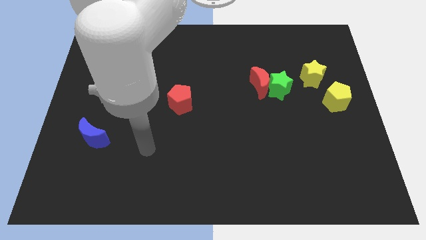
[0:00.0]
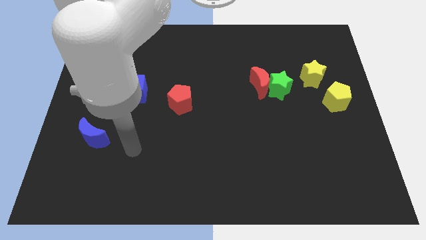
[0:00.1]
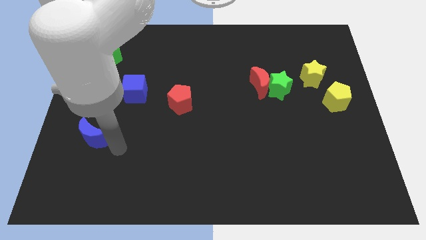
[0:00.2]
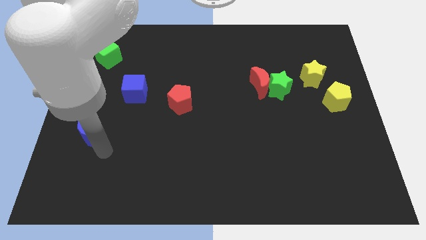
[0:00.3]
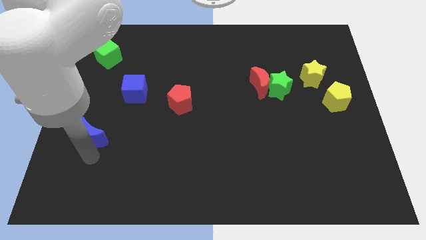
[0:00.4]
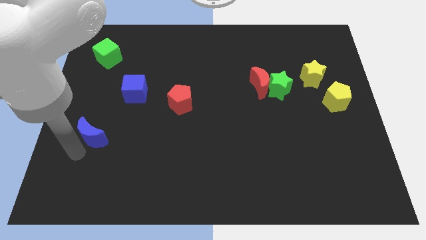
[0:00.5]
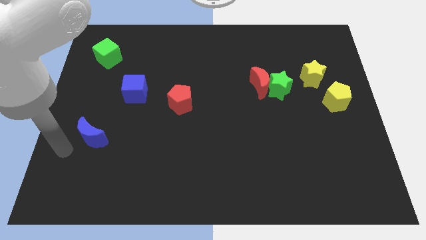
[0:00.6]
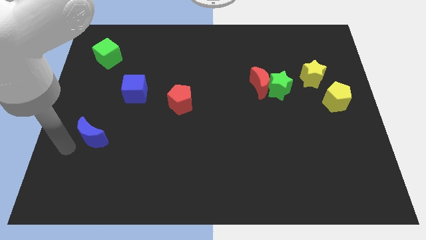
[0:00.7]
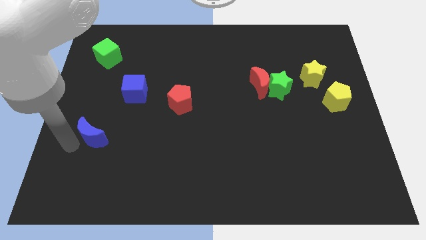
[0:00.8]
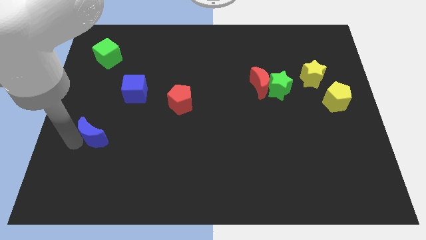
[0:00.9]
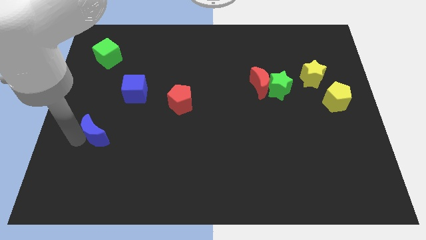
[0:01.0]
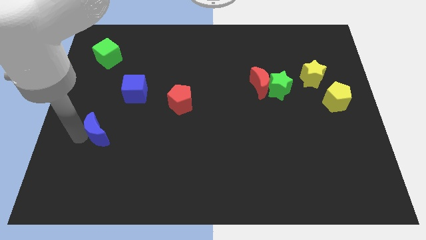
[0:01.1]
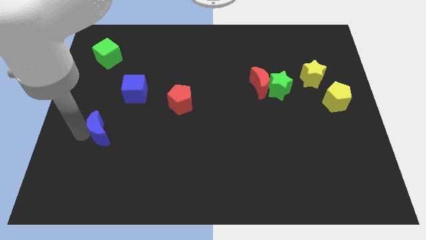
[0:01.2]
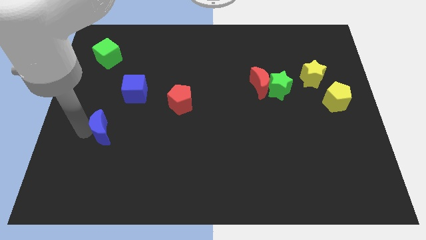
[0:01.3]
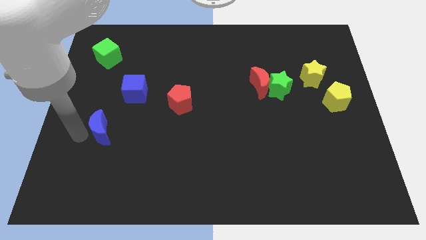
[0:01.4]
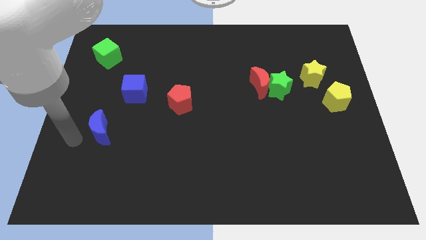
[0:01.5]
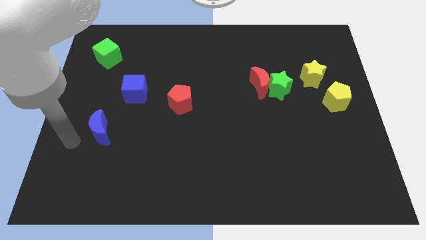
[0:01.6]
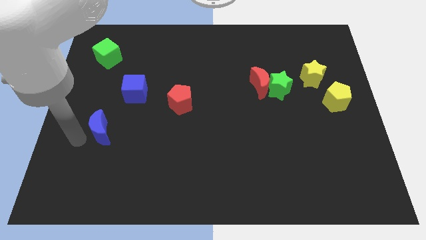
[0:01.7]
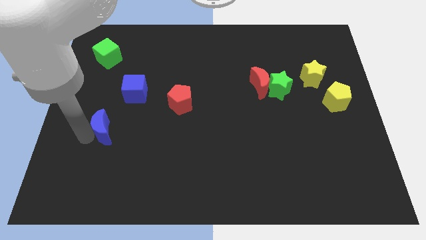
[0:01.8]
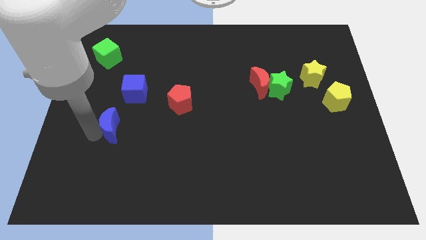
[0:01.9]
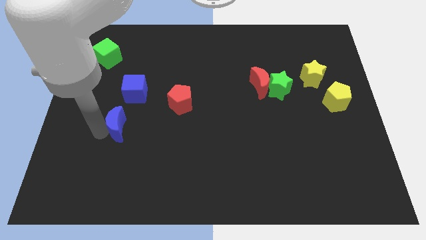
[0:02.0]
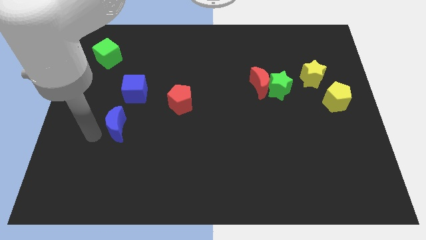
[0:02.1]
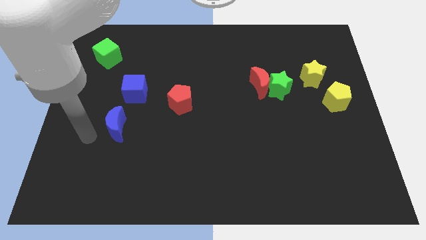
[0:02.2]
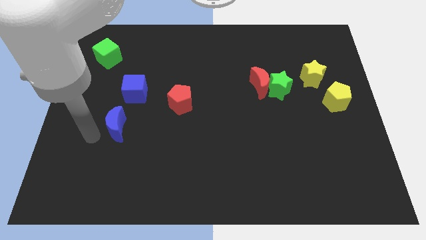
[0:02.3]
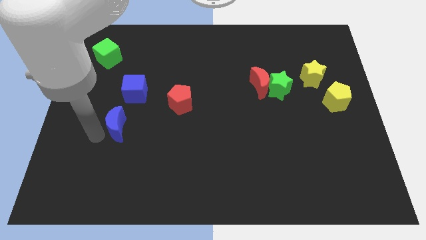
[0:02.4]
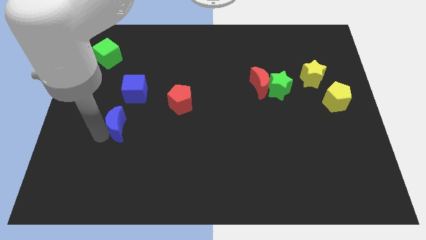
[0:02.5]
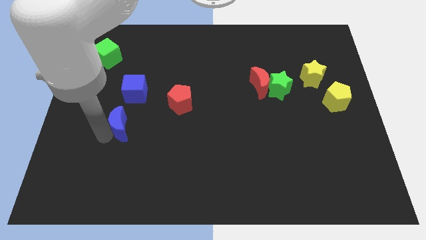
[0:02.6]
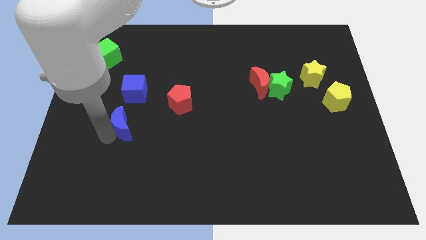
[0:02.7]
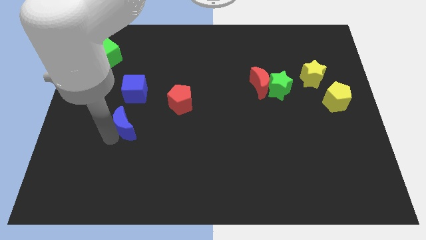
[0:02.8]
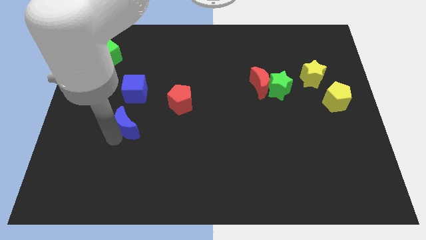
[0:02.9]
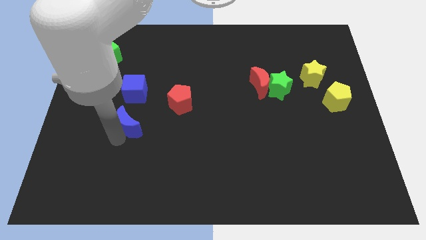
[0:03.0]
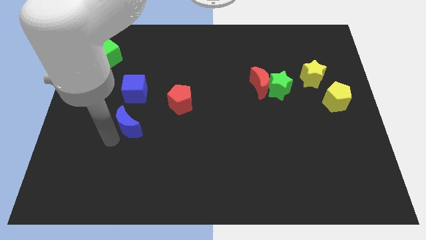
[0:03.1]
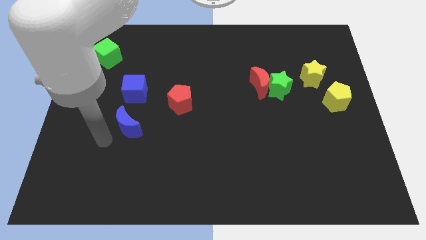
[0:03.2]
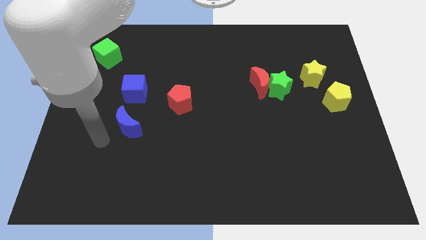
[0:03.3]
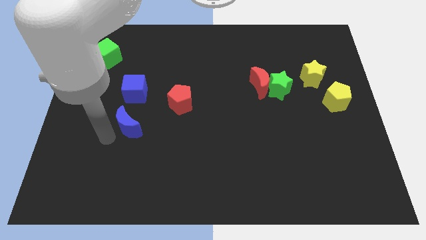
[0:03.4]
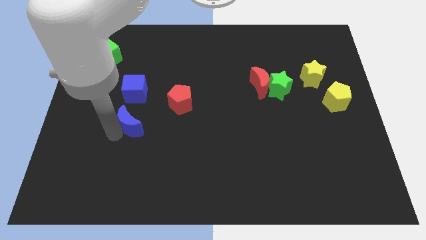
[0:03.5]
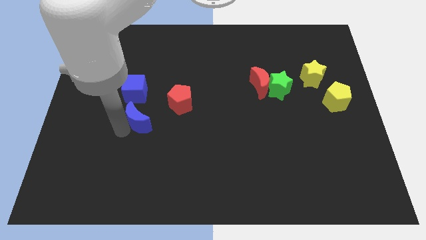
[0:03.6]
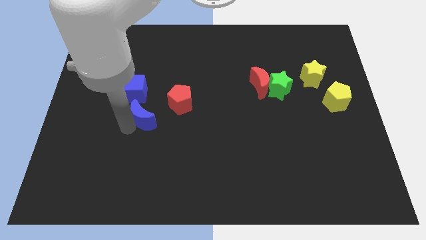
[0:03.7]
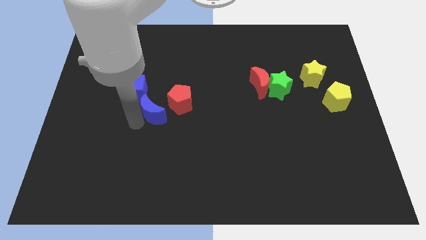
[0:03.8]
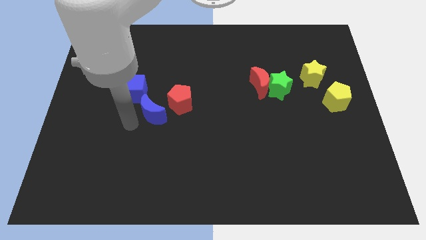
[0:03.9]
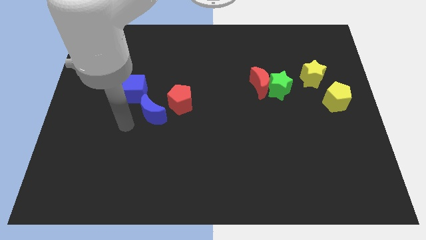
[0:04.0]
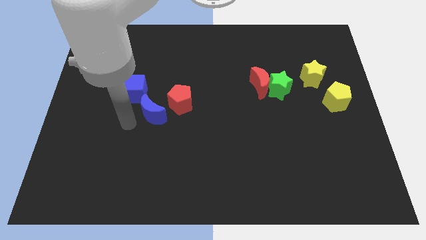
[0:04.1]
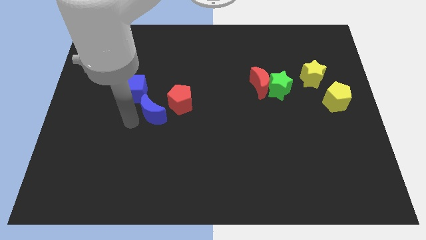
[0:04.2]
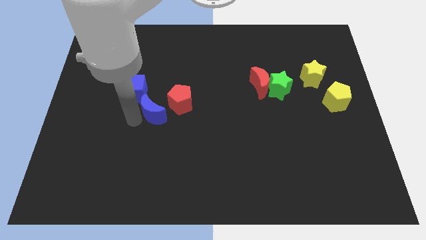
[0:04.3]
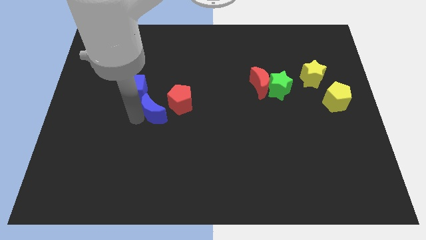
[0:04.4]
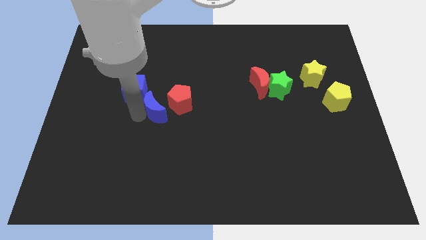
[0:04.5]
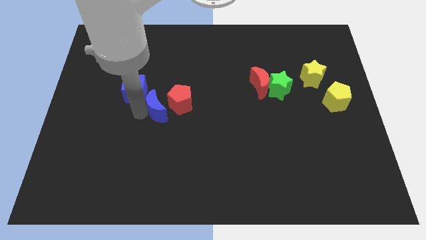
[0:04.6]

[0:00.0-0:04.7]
slide the blue moon close to the red pentagon

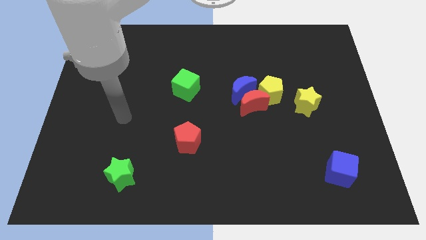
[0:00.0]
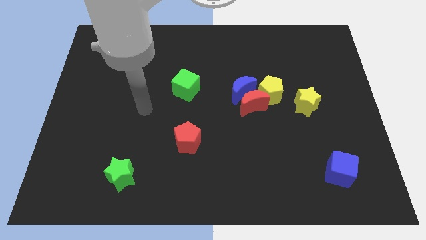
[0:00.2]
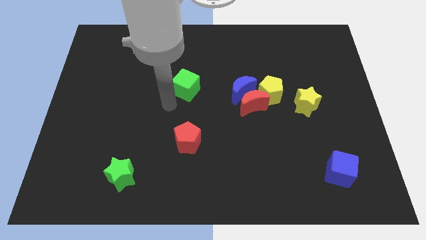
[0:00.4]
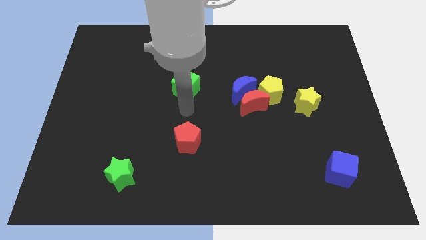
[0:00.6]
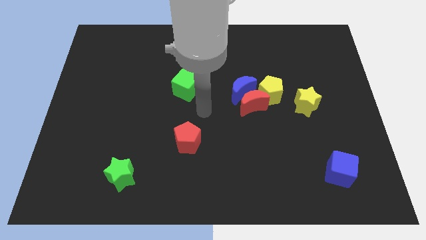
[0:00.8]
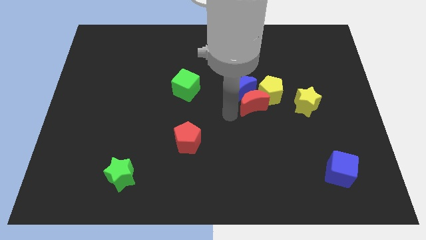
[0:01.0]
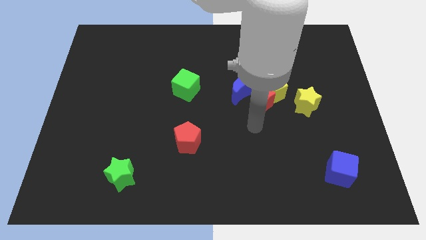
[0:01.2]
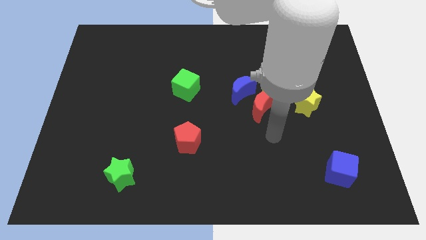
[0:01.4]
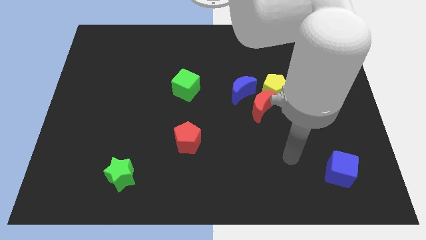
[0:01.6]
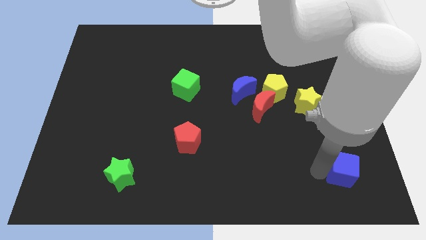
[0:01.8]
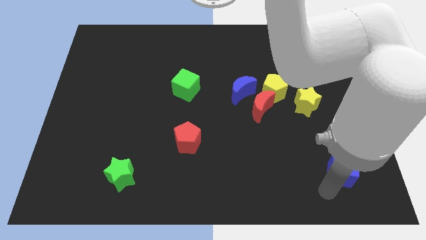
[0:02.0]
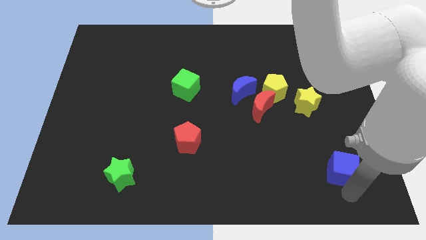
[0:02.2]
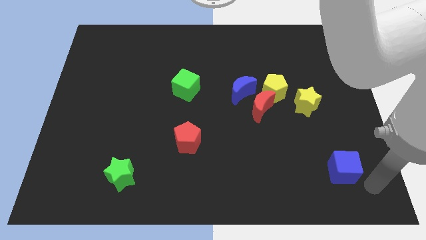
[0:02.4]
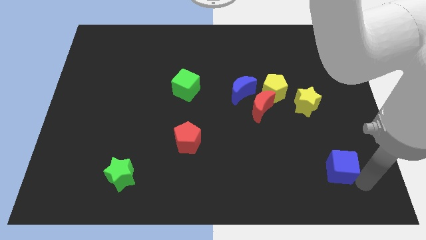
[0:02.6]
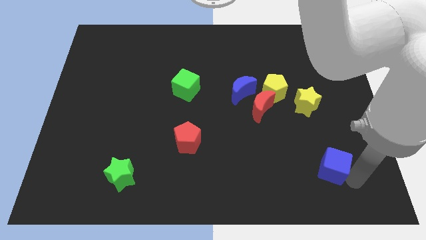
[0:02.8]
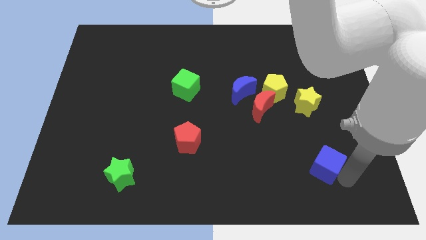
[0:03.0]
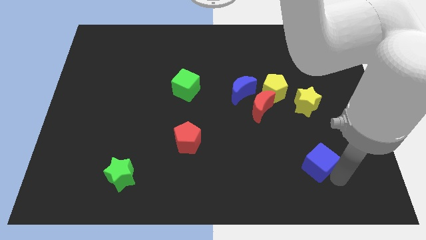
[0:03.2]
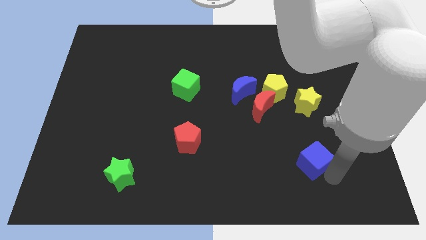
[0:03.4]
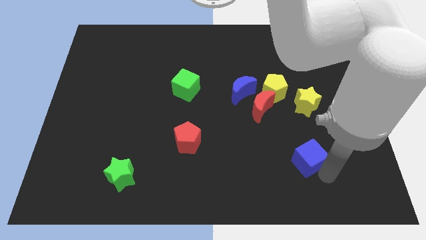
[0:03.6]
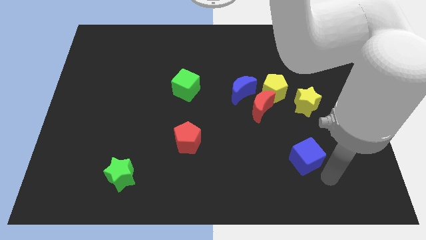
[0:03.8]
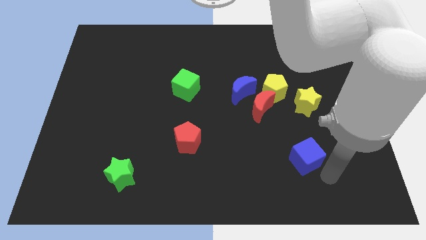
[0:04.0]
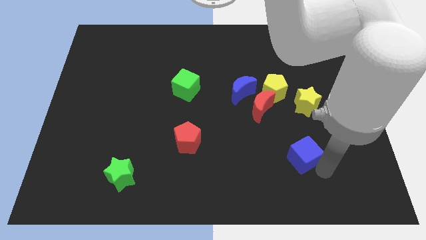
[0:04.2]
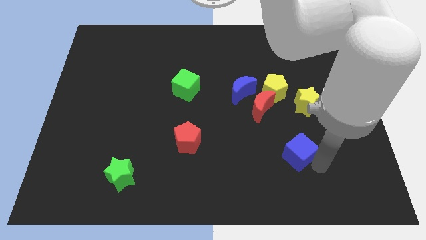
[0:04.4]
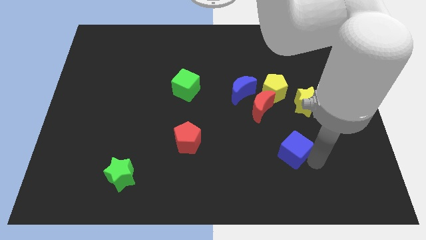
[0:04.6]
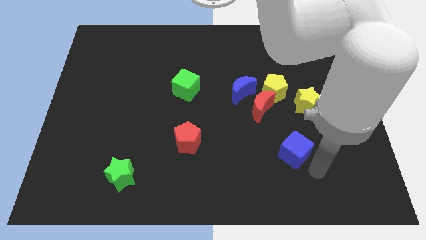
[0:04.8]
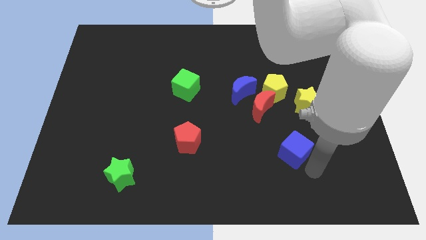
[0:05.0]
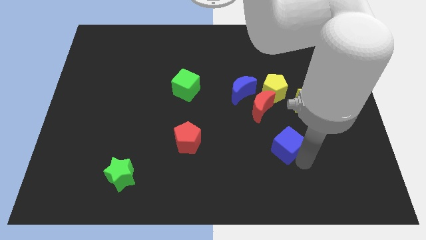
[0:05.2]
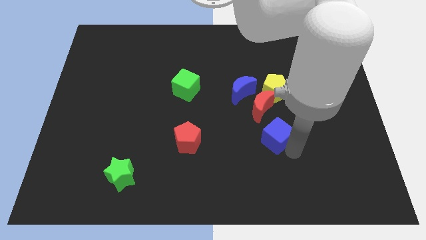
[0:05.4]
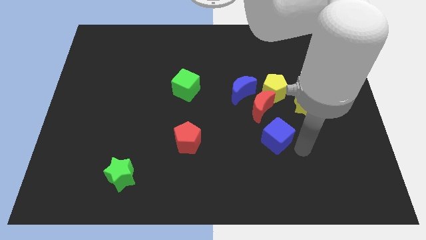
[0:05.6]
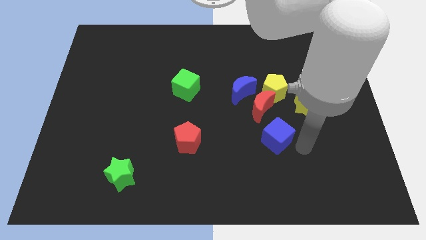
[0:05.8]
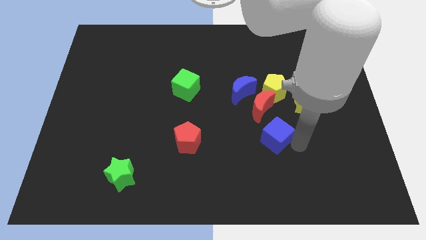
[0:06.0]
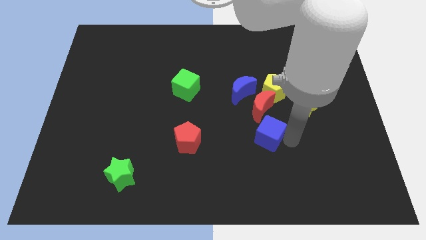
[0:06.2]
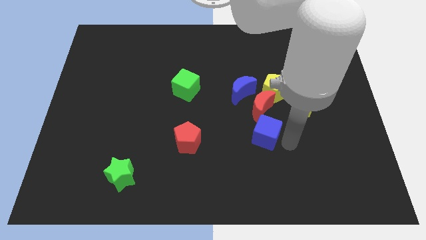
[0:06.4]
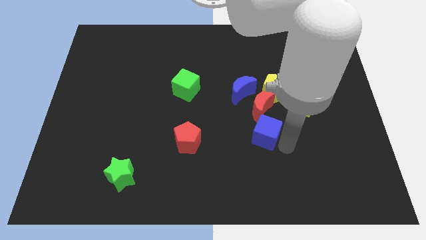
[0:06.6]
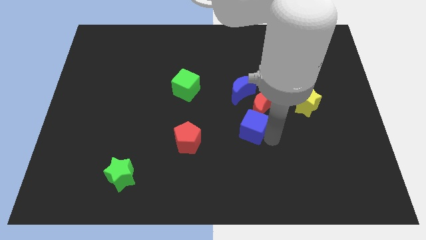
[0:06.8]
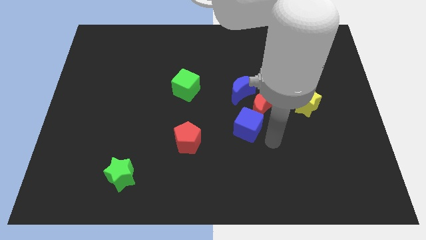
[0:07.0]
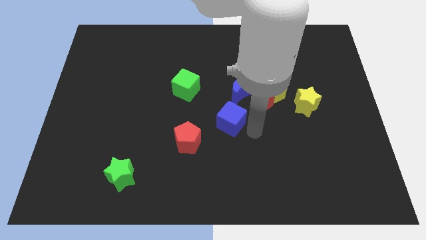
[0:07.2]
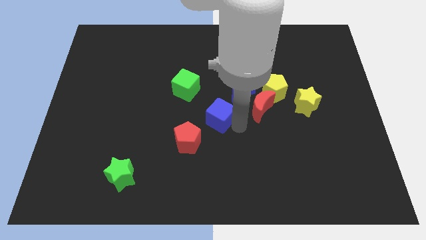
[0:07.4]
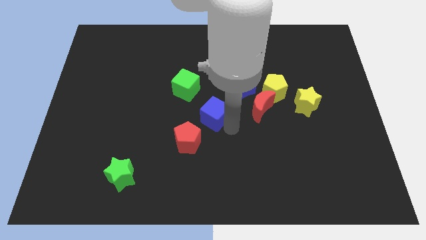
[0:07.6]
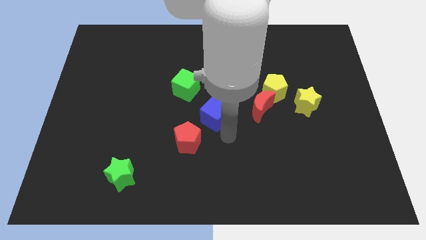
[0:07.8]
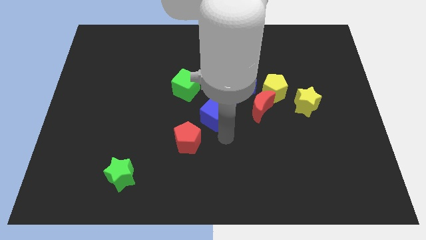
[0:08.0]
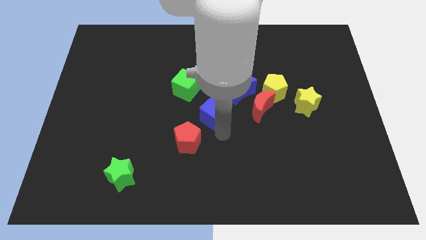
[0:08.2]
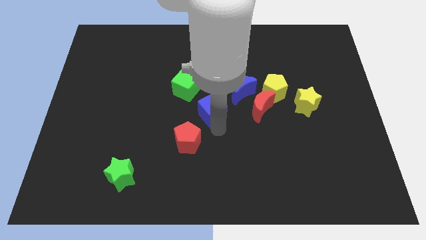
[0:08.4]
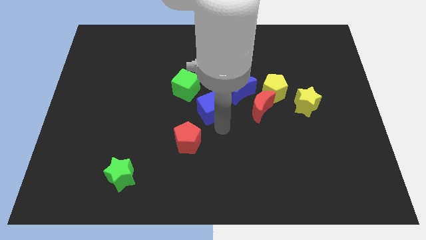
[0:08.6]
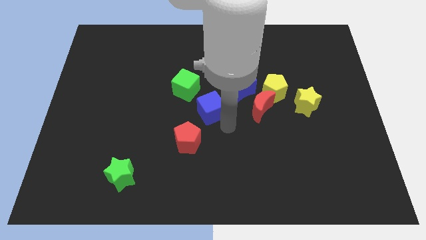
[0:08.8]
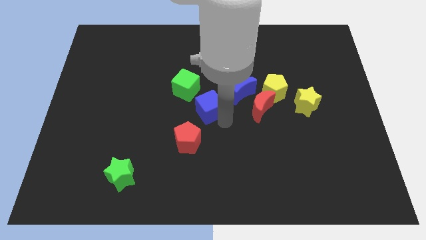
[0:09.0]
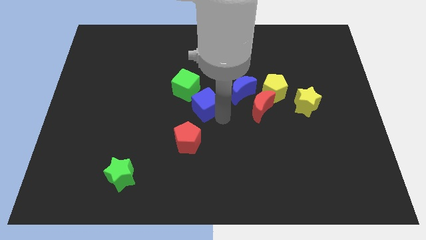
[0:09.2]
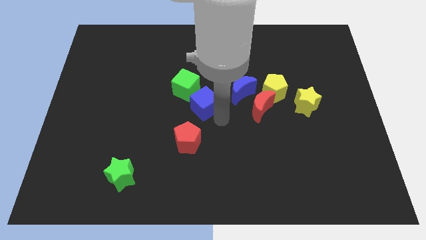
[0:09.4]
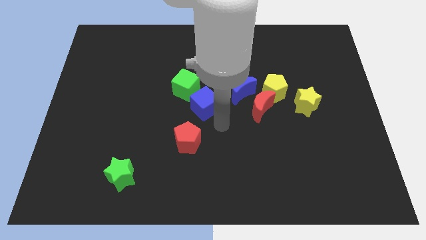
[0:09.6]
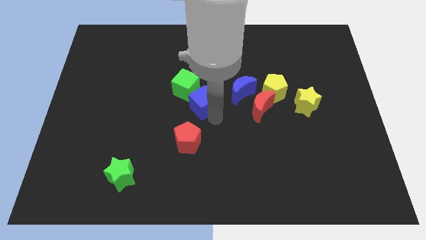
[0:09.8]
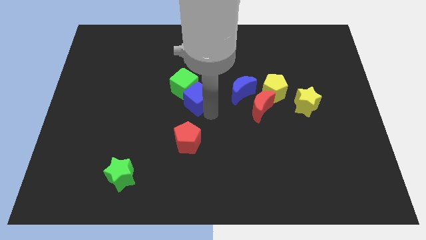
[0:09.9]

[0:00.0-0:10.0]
put the blue cube next to the green cube
